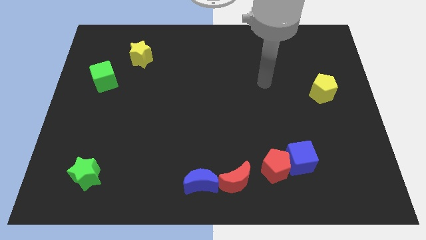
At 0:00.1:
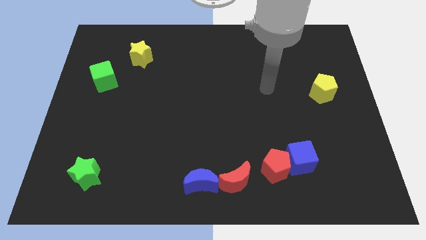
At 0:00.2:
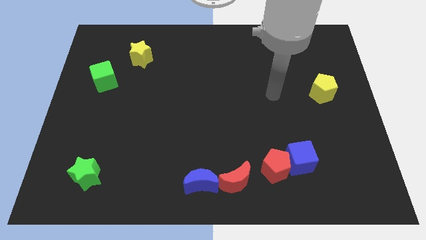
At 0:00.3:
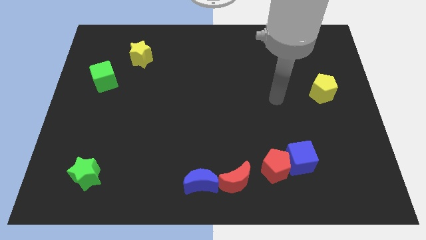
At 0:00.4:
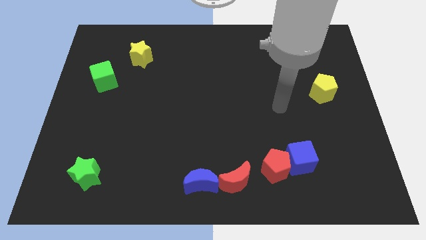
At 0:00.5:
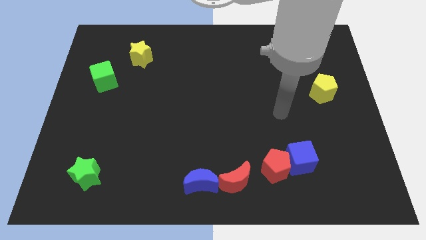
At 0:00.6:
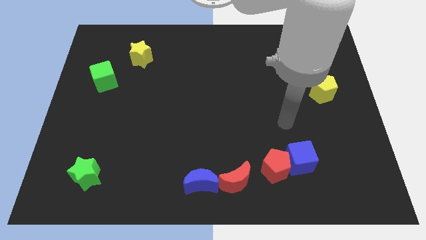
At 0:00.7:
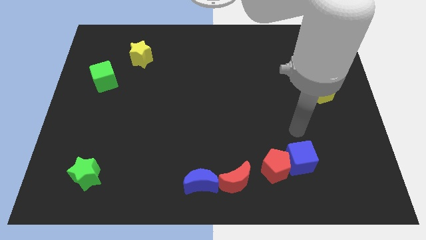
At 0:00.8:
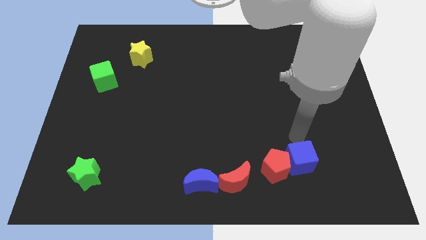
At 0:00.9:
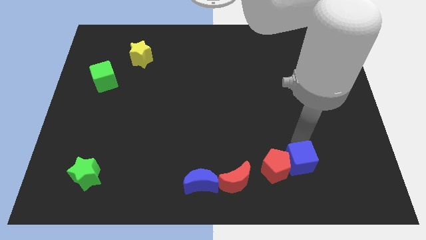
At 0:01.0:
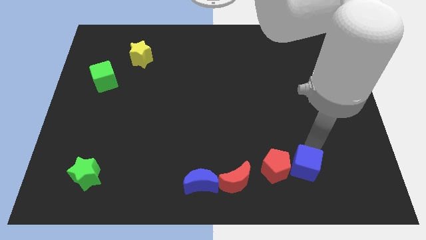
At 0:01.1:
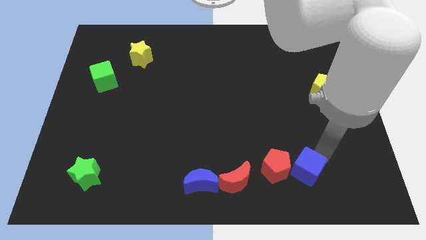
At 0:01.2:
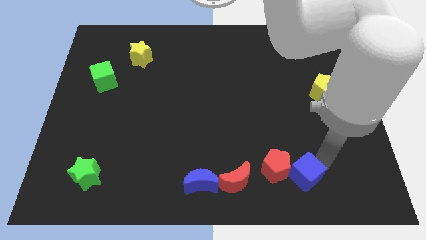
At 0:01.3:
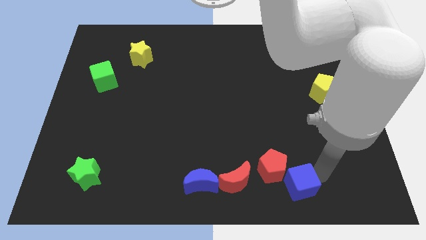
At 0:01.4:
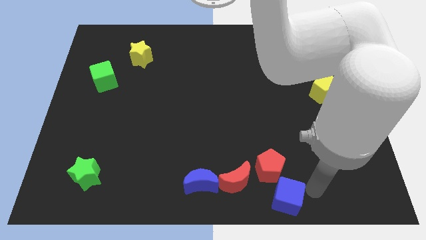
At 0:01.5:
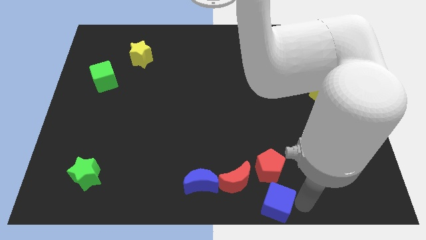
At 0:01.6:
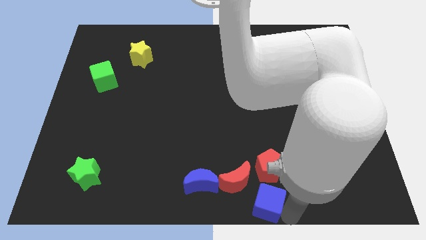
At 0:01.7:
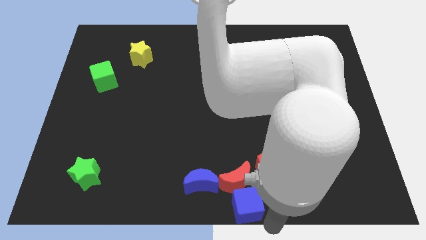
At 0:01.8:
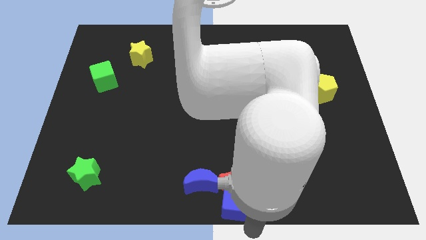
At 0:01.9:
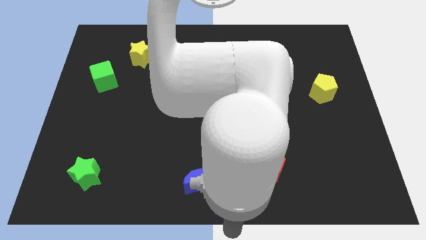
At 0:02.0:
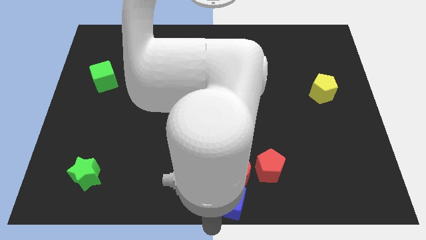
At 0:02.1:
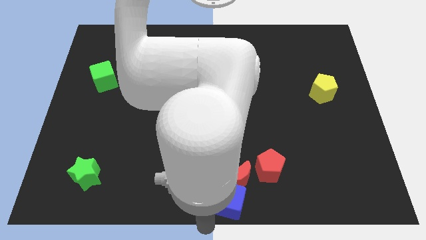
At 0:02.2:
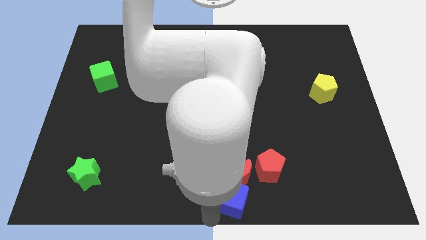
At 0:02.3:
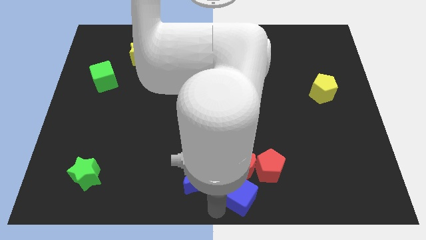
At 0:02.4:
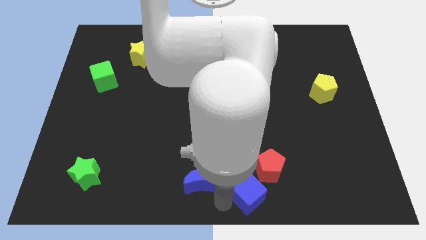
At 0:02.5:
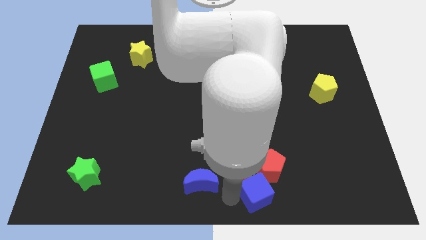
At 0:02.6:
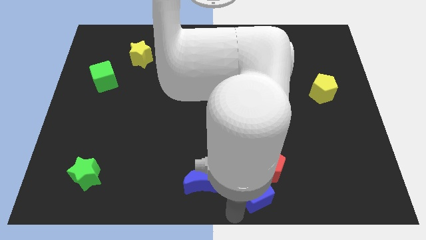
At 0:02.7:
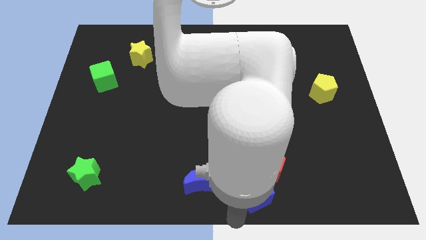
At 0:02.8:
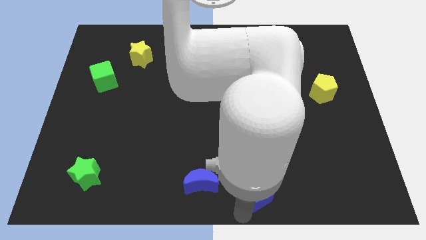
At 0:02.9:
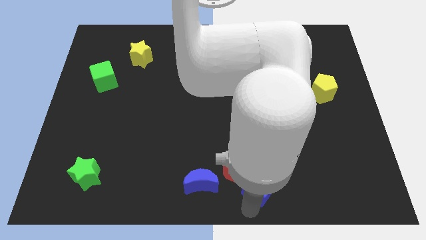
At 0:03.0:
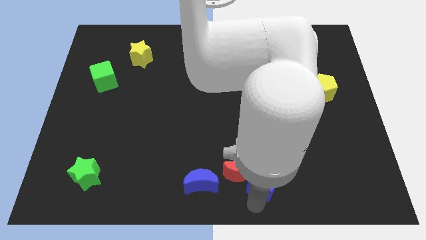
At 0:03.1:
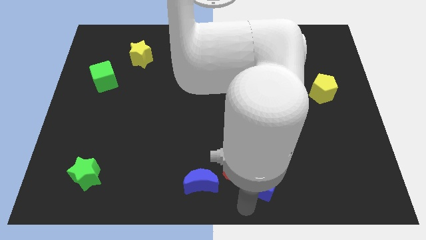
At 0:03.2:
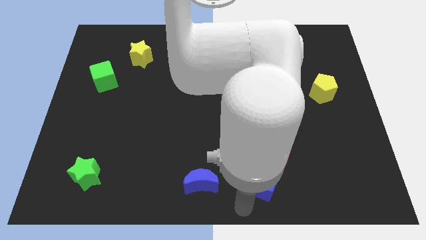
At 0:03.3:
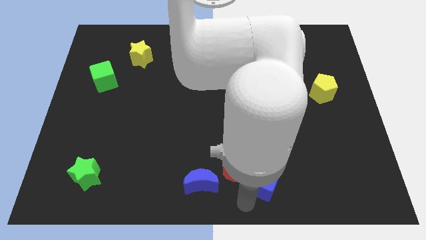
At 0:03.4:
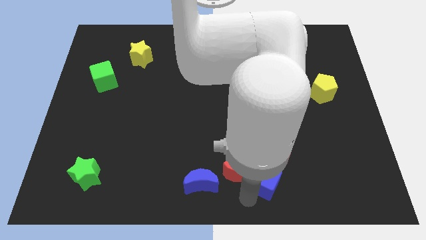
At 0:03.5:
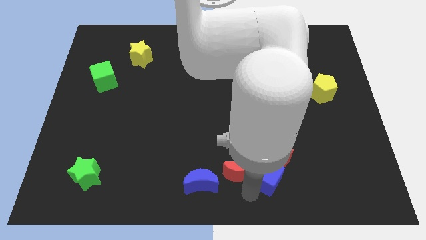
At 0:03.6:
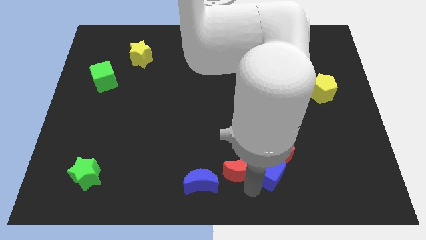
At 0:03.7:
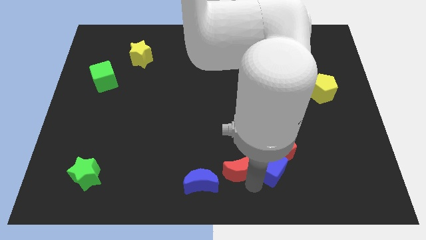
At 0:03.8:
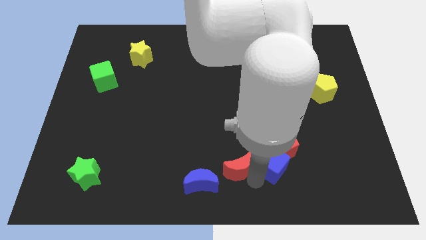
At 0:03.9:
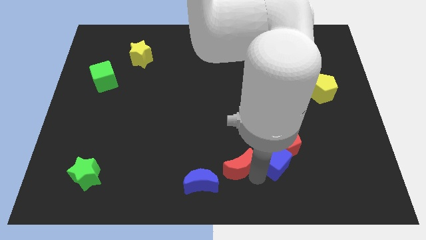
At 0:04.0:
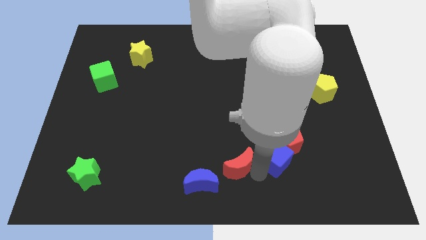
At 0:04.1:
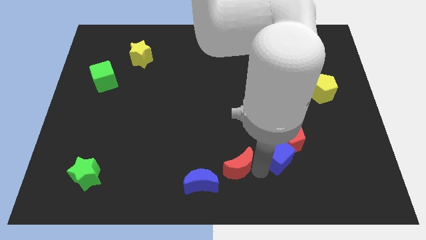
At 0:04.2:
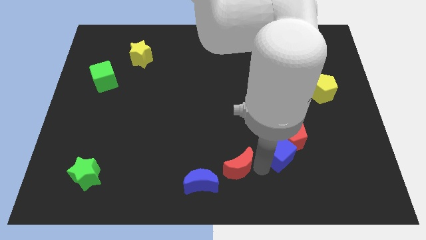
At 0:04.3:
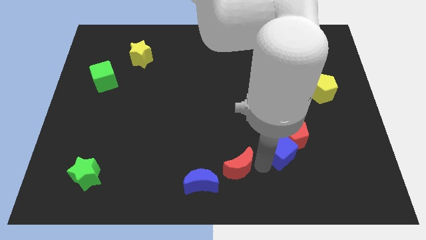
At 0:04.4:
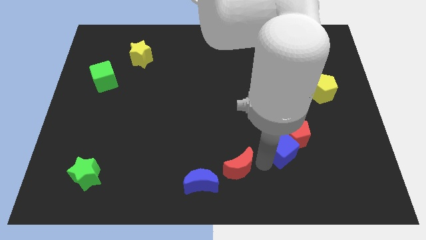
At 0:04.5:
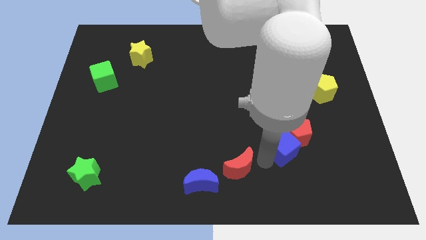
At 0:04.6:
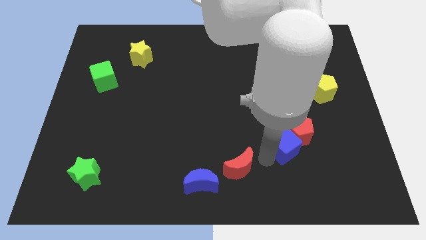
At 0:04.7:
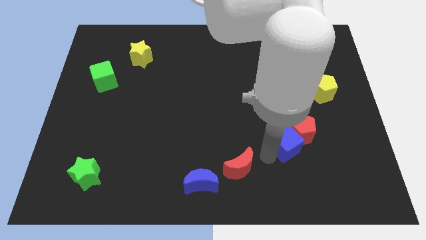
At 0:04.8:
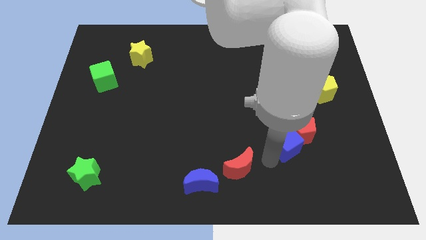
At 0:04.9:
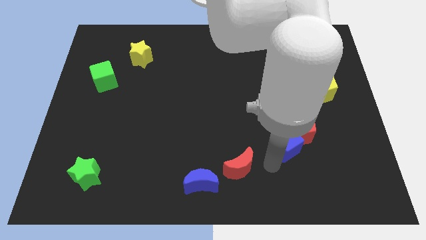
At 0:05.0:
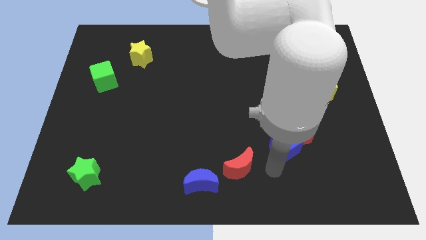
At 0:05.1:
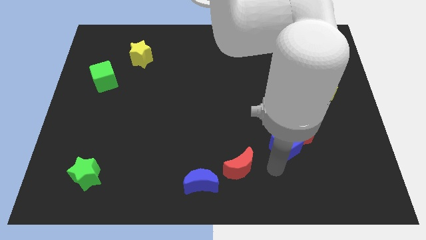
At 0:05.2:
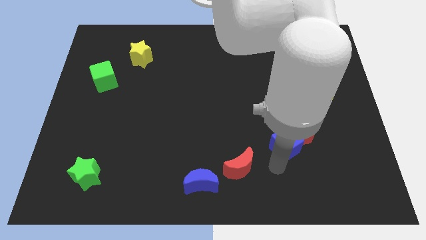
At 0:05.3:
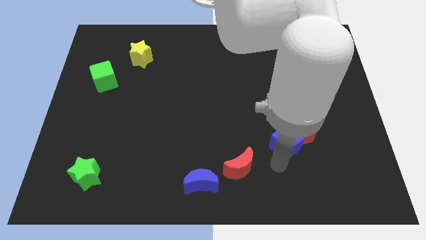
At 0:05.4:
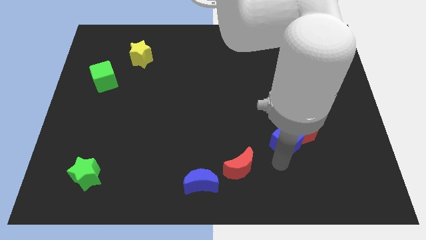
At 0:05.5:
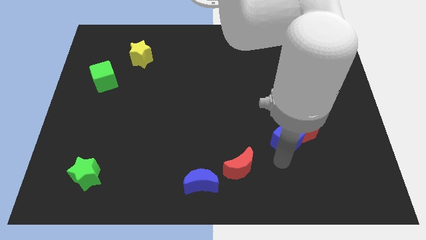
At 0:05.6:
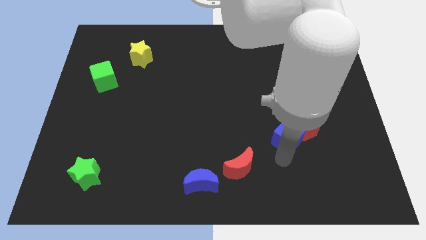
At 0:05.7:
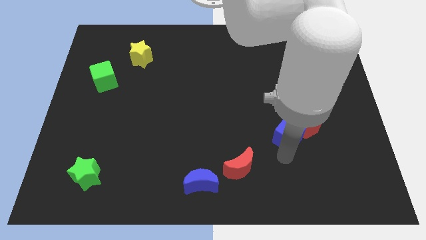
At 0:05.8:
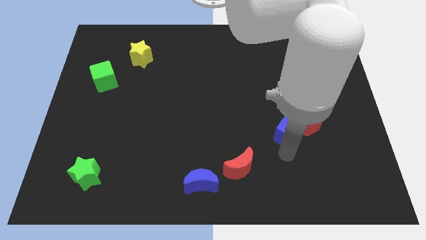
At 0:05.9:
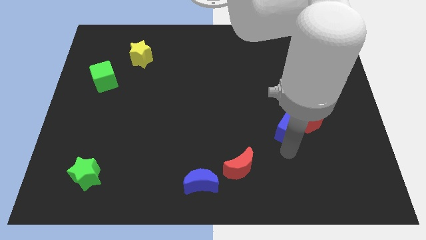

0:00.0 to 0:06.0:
move the blue cube slightly up

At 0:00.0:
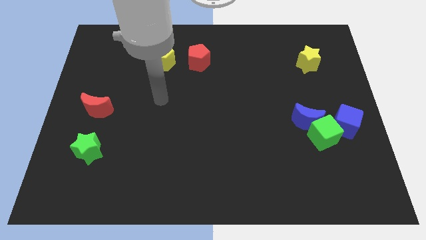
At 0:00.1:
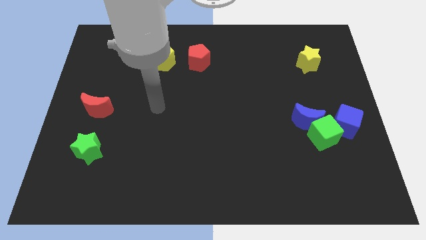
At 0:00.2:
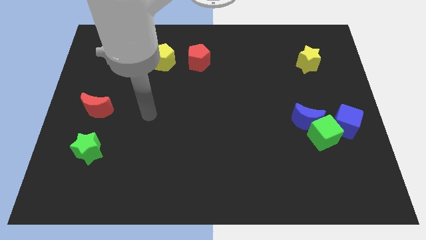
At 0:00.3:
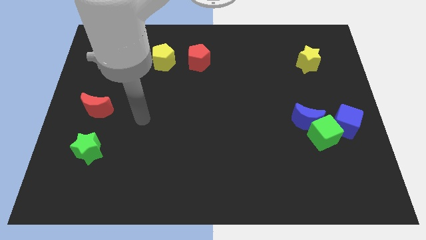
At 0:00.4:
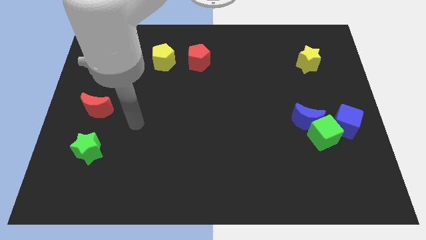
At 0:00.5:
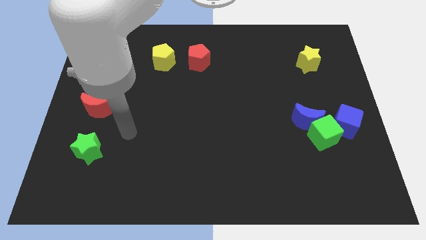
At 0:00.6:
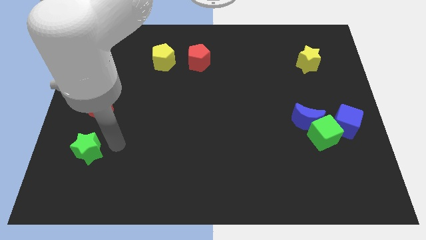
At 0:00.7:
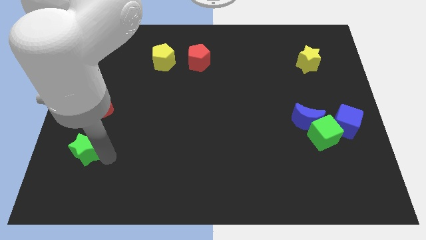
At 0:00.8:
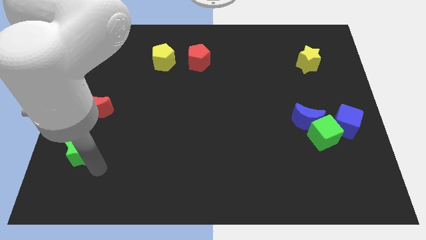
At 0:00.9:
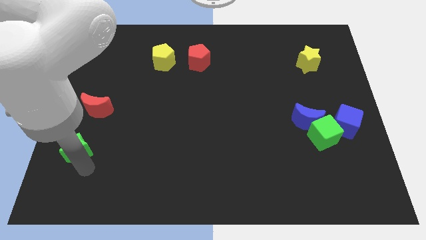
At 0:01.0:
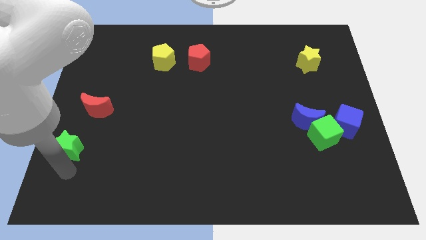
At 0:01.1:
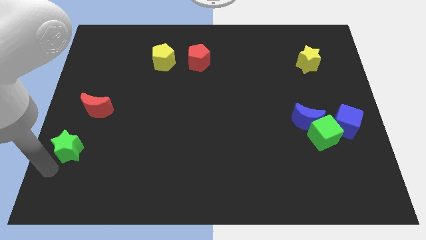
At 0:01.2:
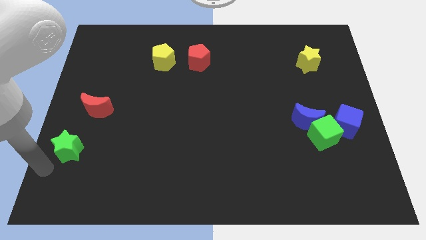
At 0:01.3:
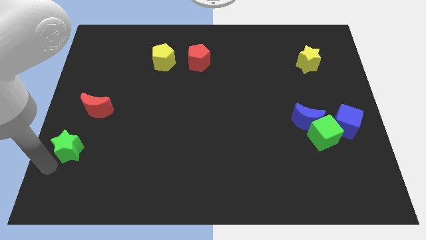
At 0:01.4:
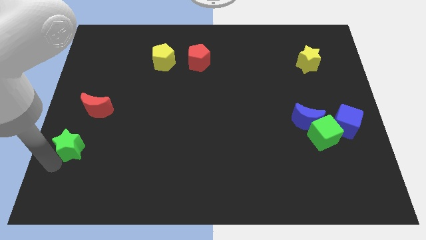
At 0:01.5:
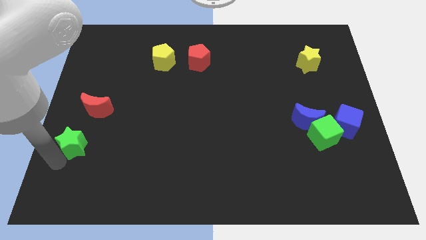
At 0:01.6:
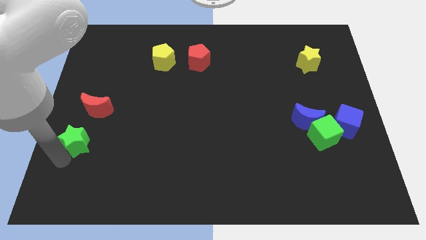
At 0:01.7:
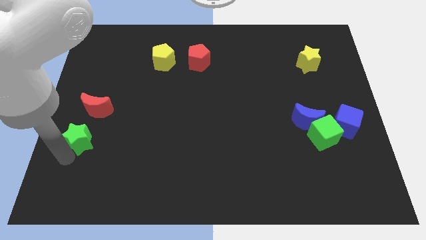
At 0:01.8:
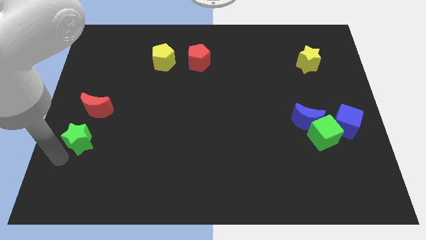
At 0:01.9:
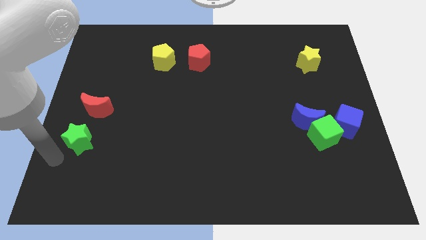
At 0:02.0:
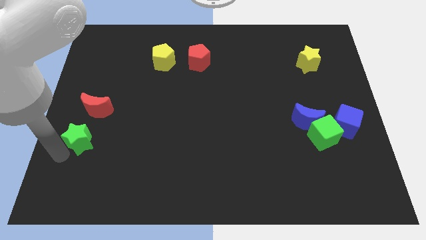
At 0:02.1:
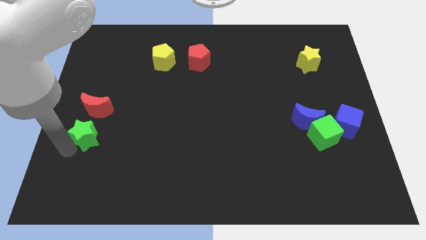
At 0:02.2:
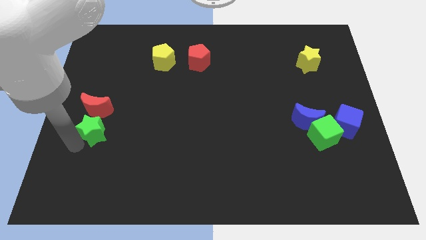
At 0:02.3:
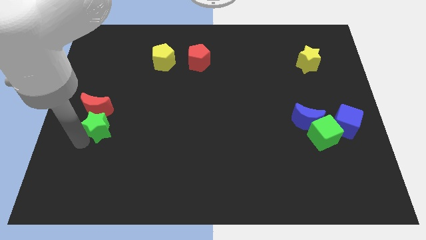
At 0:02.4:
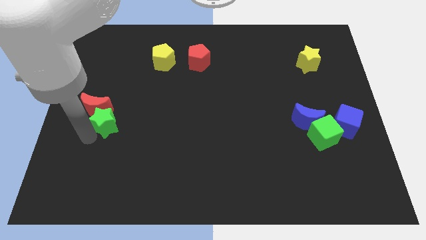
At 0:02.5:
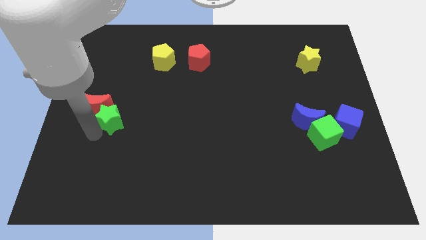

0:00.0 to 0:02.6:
push the green star slightly upwards
